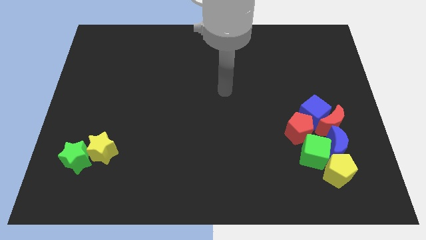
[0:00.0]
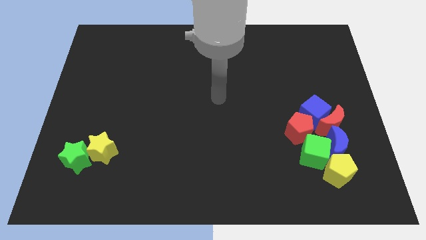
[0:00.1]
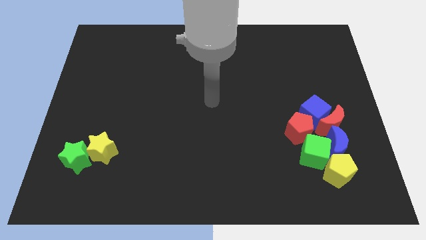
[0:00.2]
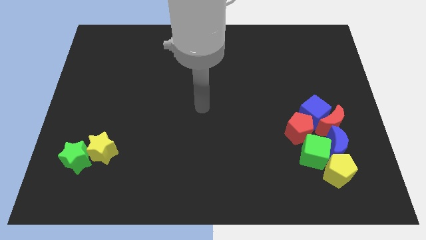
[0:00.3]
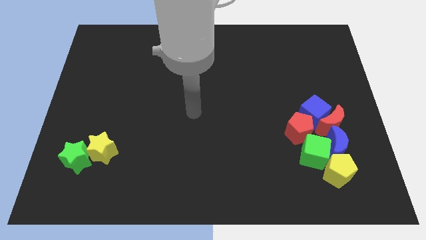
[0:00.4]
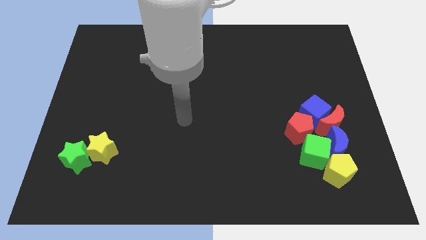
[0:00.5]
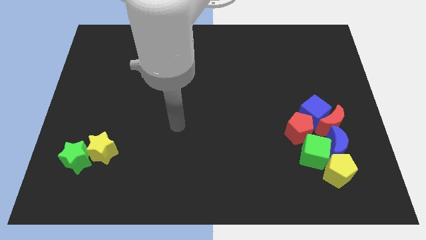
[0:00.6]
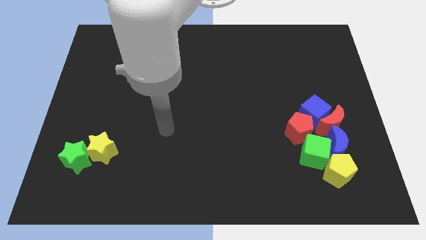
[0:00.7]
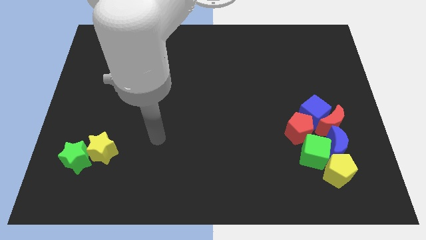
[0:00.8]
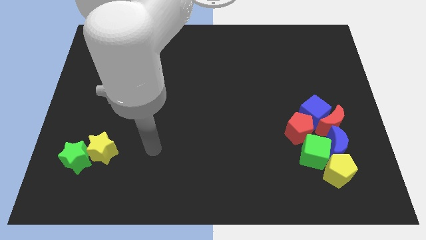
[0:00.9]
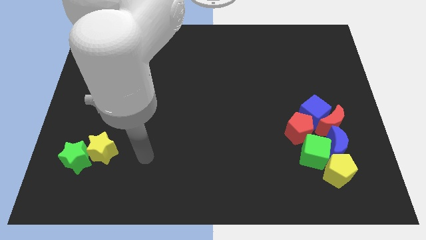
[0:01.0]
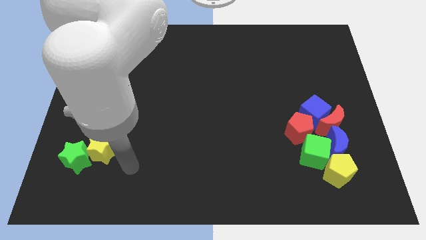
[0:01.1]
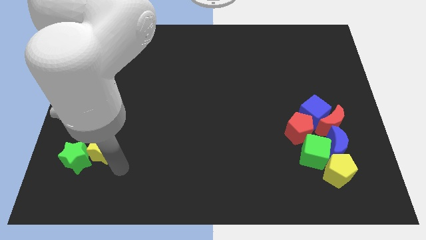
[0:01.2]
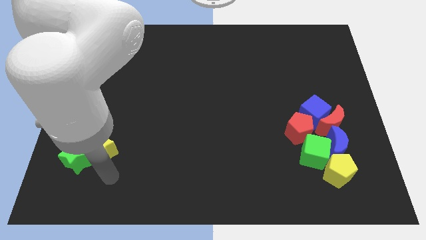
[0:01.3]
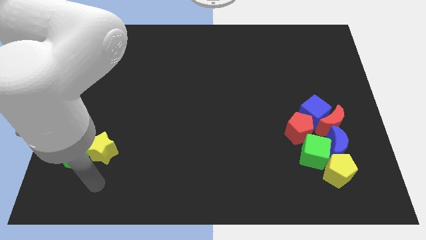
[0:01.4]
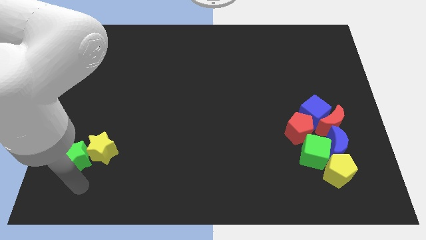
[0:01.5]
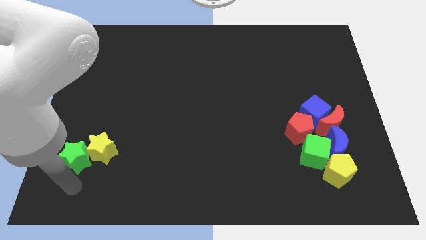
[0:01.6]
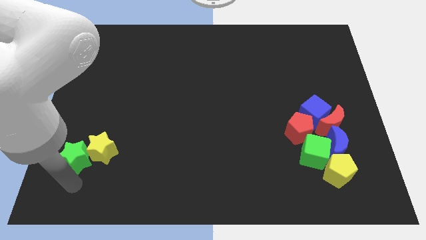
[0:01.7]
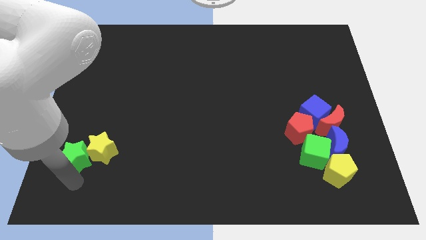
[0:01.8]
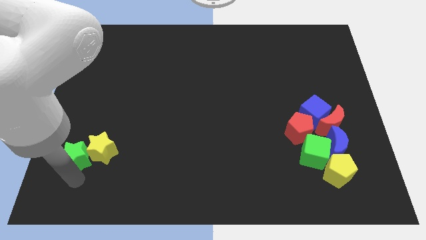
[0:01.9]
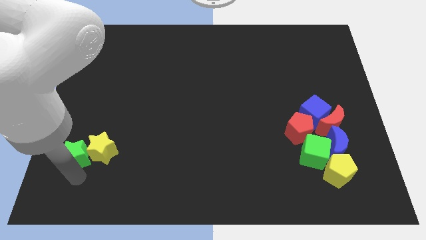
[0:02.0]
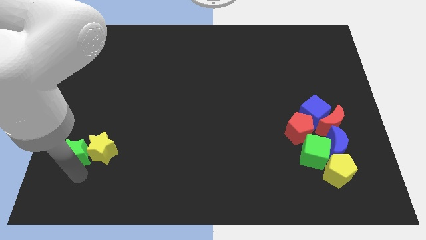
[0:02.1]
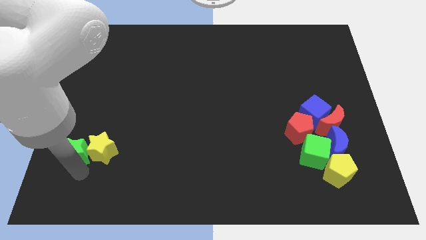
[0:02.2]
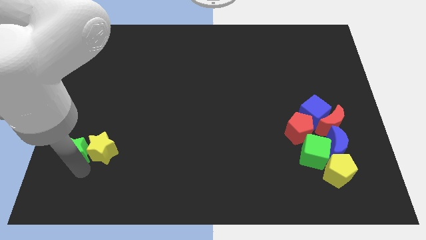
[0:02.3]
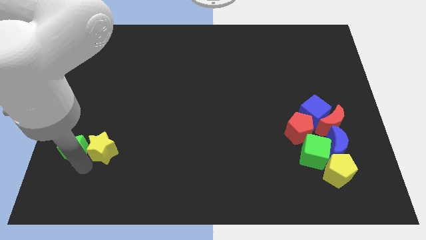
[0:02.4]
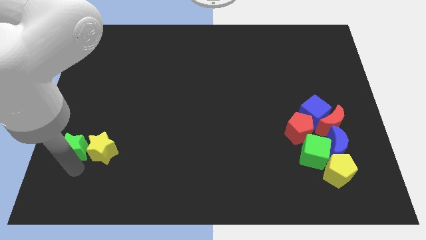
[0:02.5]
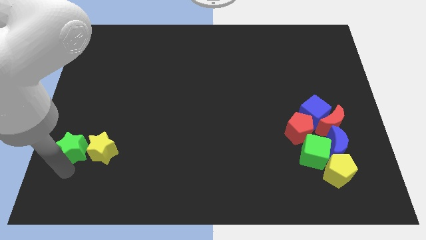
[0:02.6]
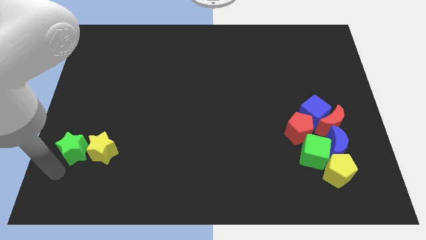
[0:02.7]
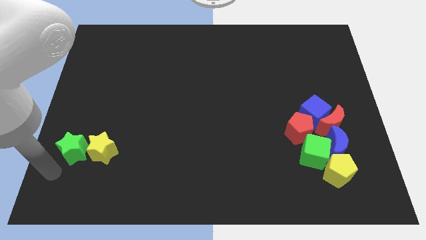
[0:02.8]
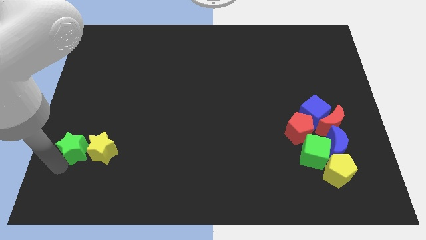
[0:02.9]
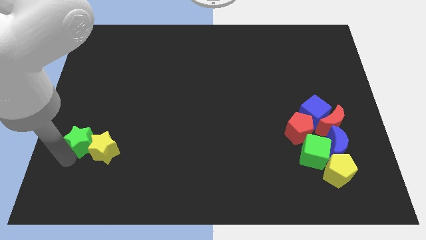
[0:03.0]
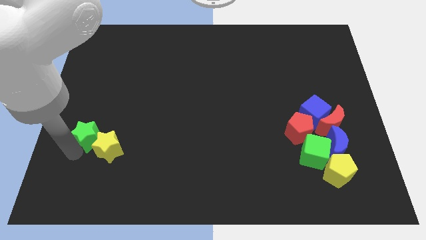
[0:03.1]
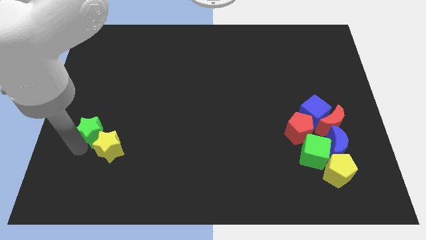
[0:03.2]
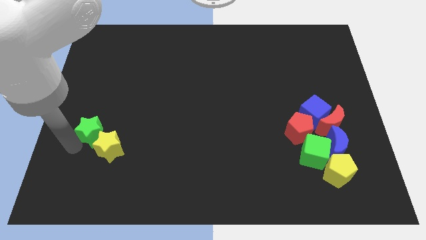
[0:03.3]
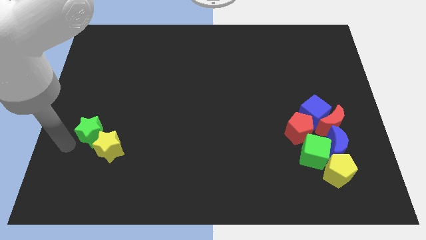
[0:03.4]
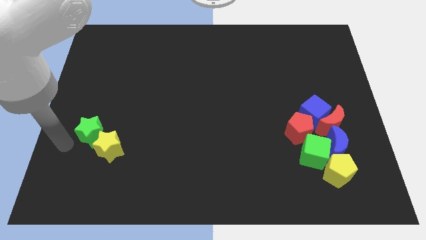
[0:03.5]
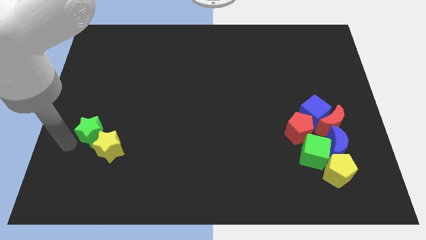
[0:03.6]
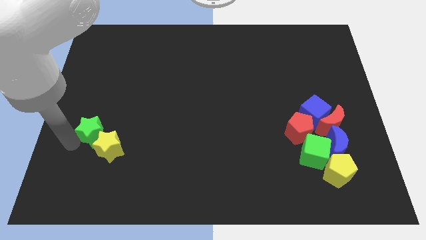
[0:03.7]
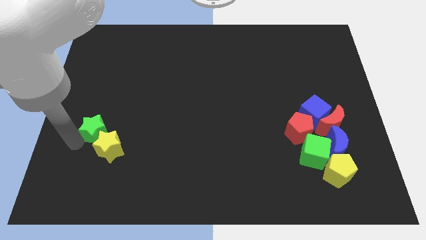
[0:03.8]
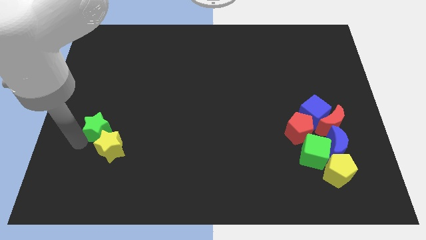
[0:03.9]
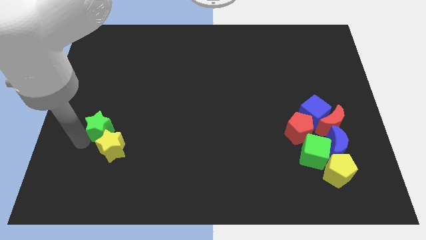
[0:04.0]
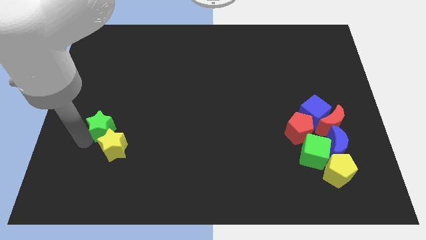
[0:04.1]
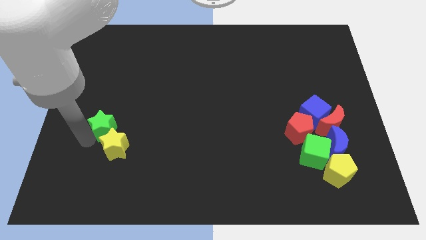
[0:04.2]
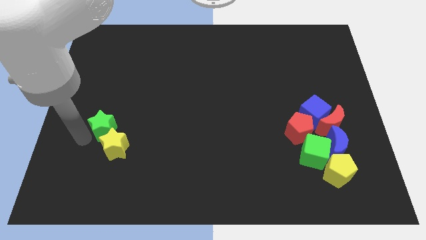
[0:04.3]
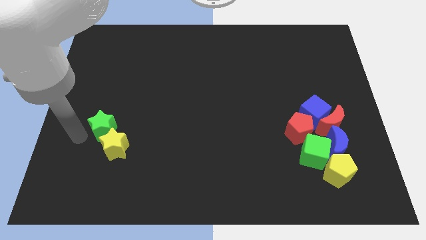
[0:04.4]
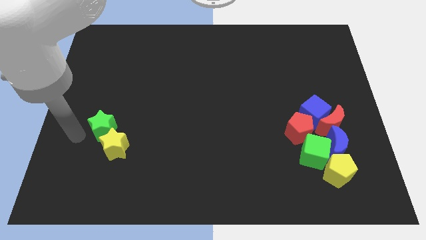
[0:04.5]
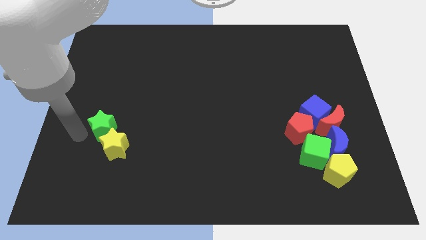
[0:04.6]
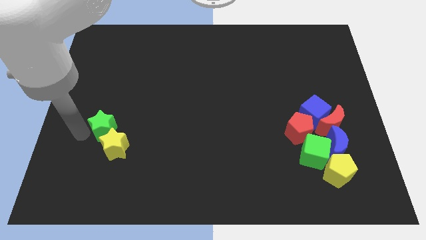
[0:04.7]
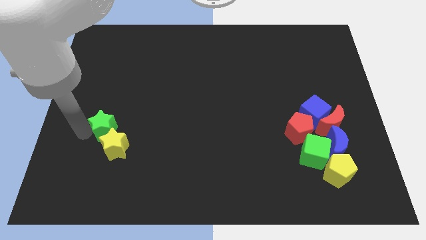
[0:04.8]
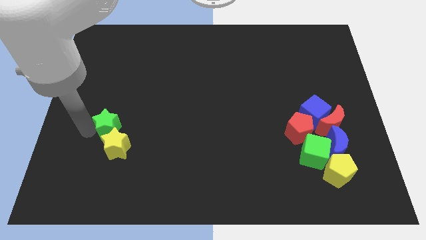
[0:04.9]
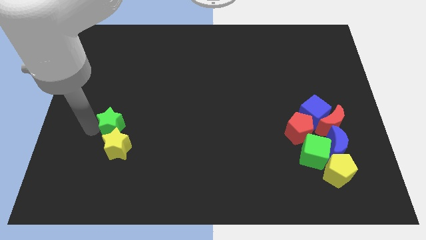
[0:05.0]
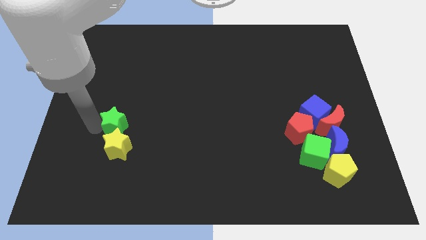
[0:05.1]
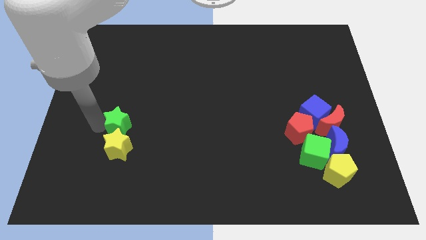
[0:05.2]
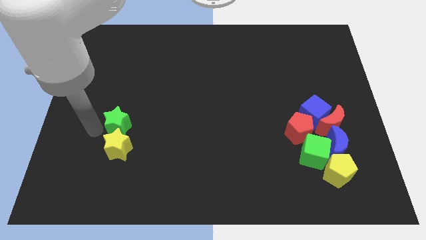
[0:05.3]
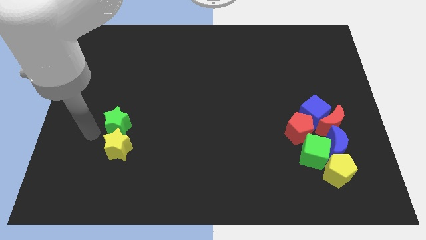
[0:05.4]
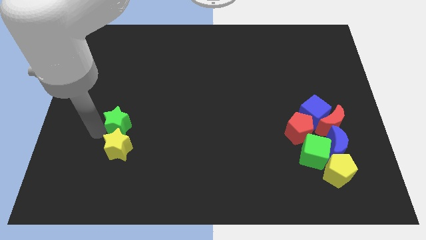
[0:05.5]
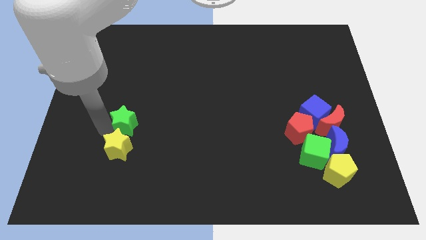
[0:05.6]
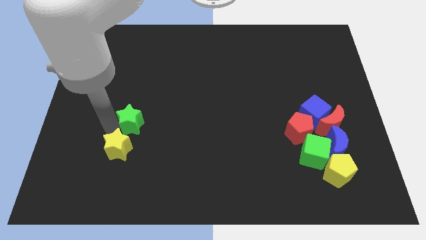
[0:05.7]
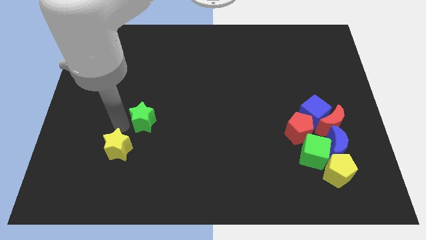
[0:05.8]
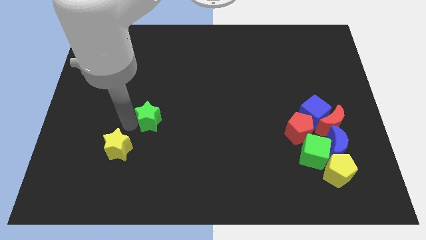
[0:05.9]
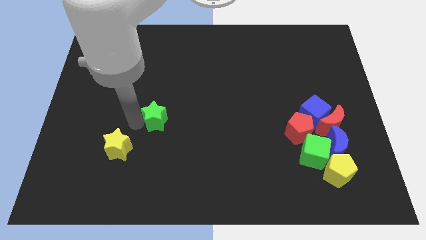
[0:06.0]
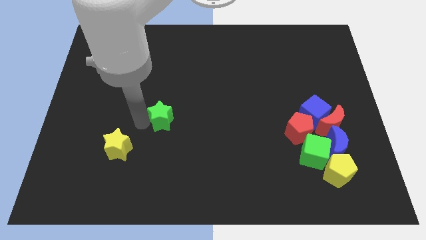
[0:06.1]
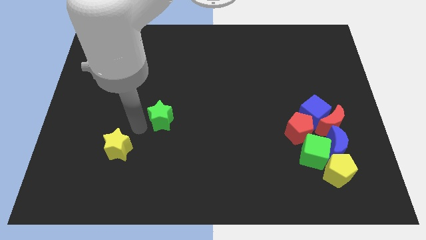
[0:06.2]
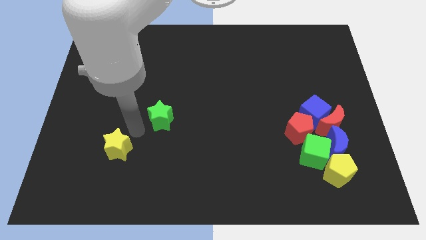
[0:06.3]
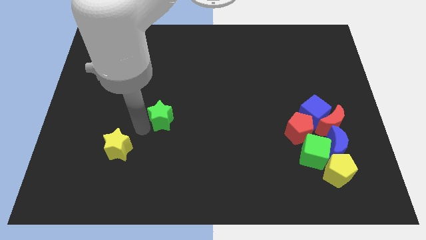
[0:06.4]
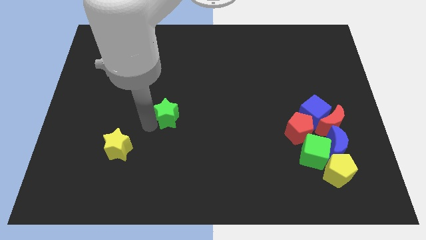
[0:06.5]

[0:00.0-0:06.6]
put the green star to the middle of the board

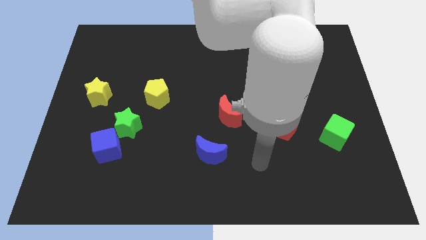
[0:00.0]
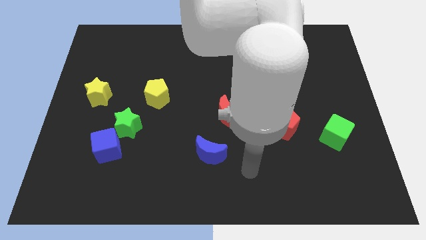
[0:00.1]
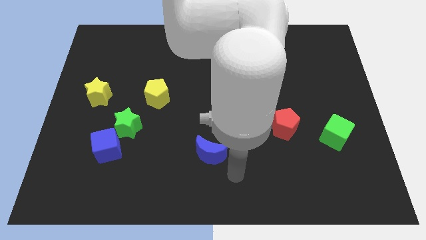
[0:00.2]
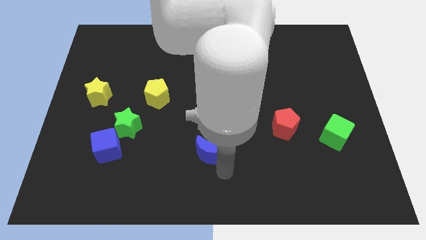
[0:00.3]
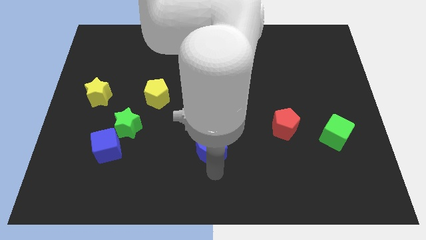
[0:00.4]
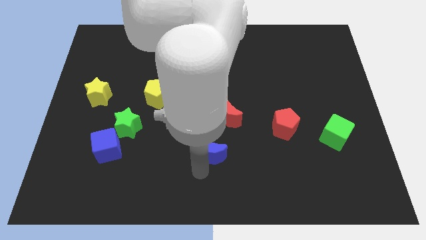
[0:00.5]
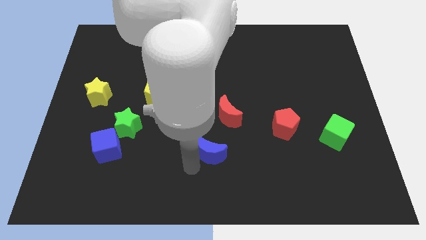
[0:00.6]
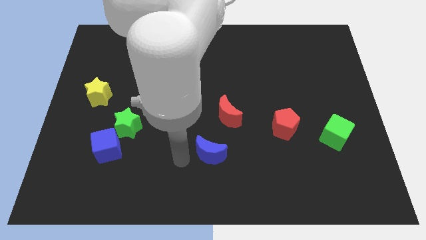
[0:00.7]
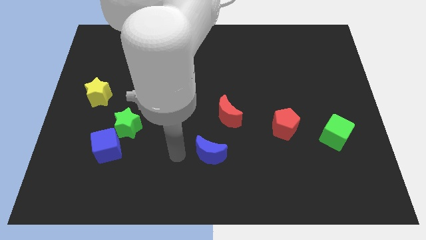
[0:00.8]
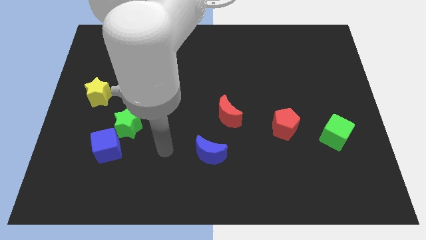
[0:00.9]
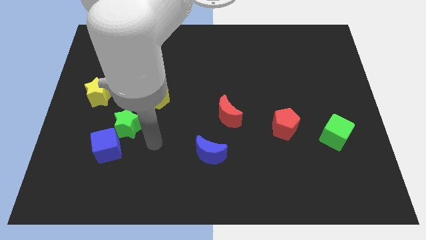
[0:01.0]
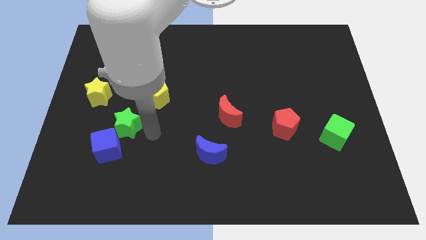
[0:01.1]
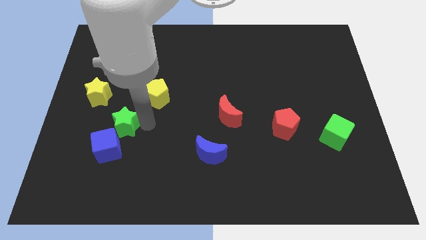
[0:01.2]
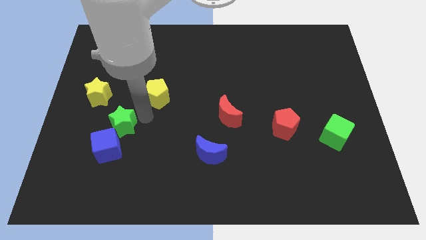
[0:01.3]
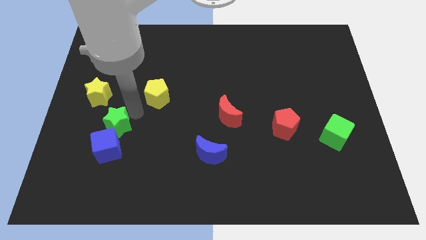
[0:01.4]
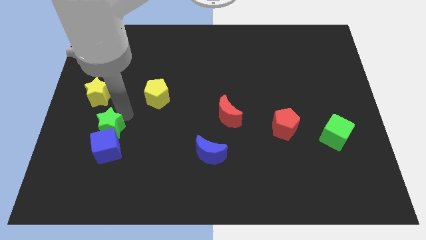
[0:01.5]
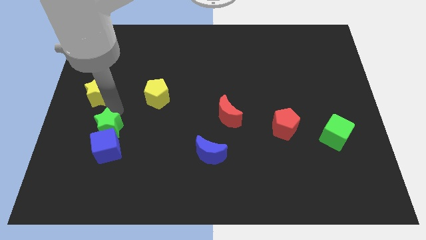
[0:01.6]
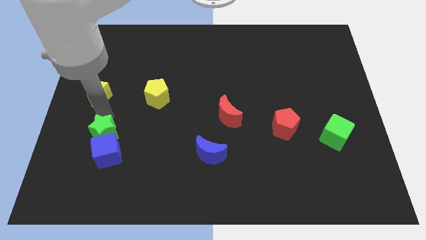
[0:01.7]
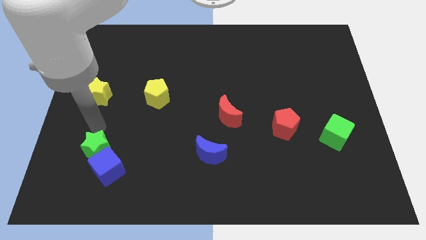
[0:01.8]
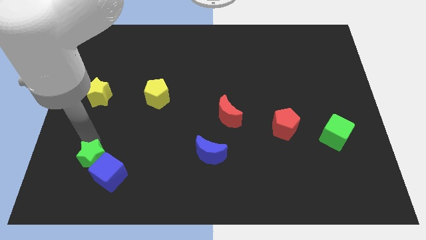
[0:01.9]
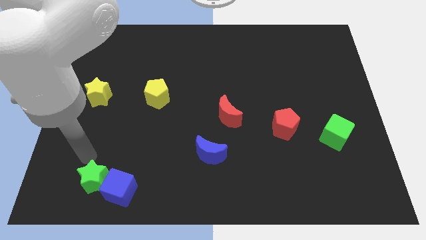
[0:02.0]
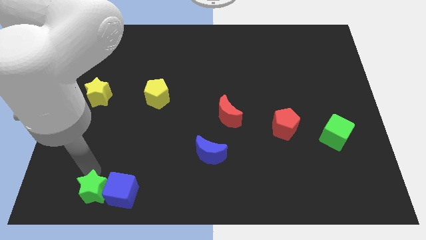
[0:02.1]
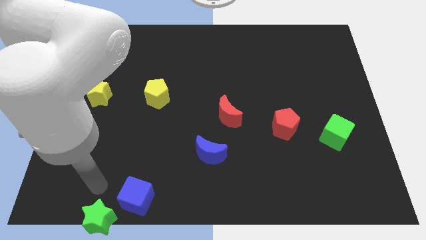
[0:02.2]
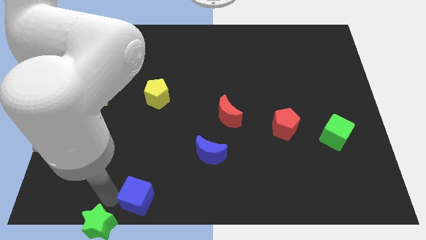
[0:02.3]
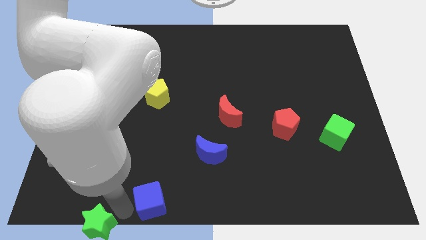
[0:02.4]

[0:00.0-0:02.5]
slide the blue cube to the bottom side
